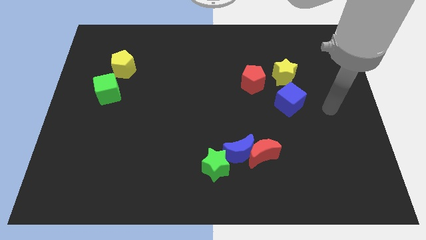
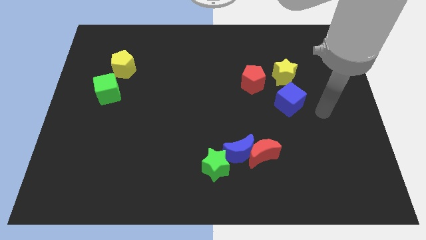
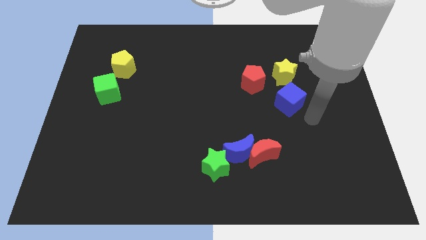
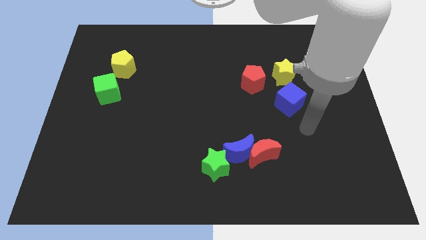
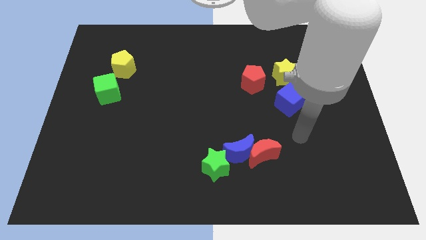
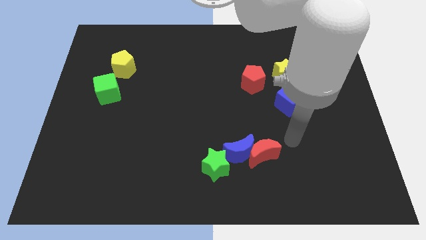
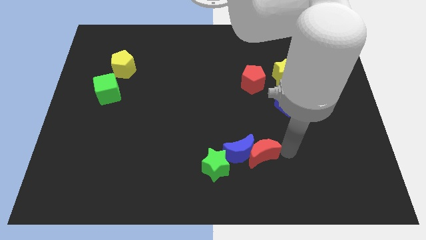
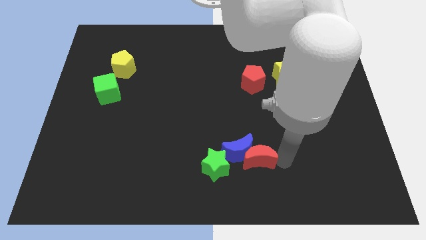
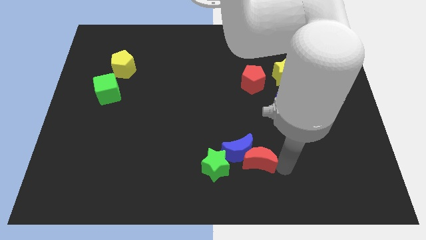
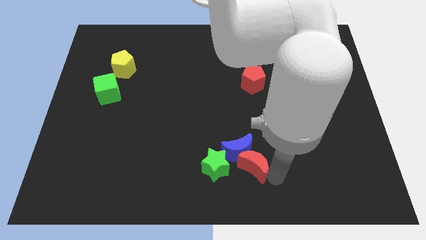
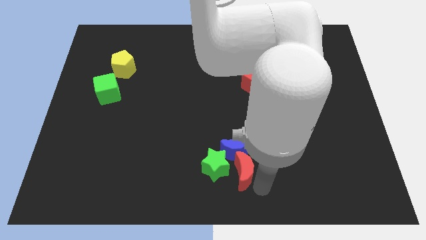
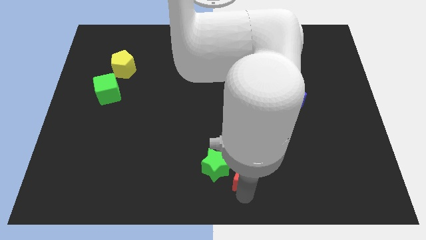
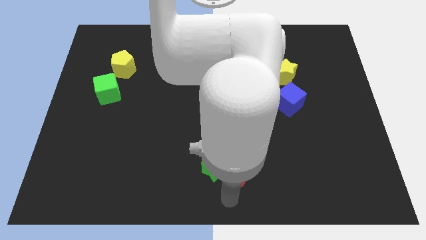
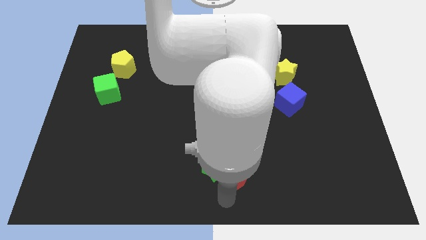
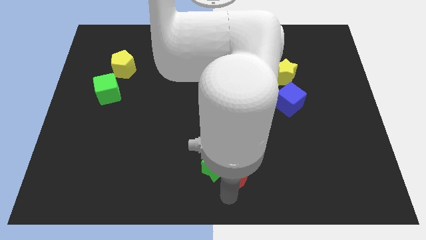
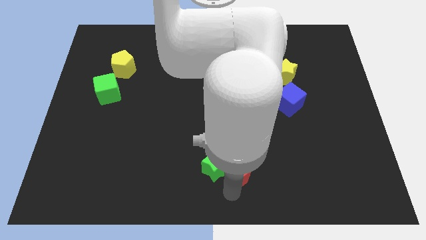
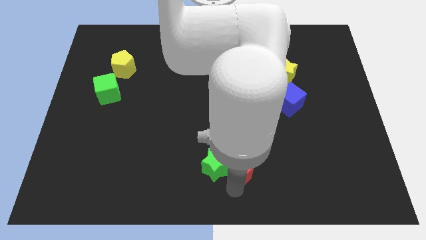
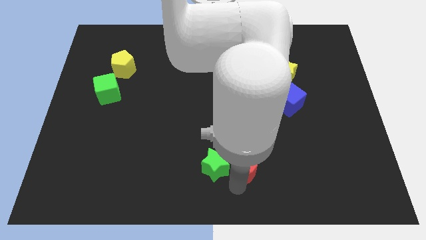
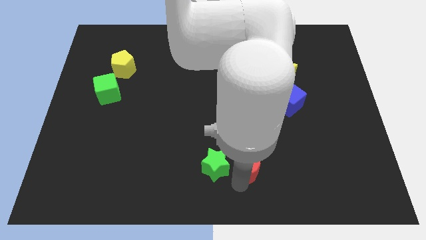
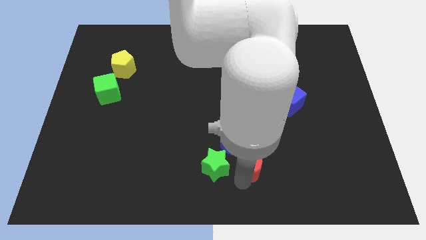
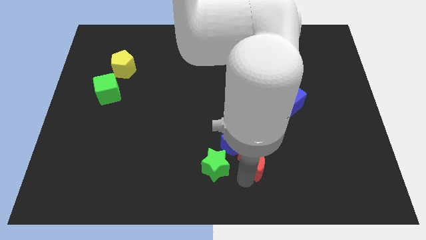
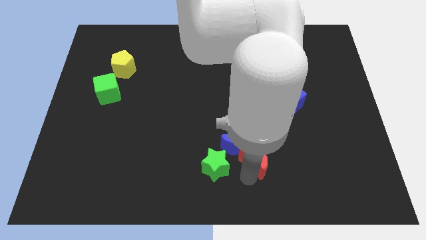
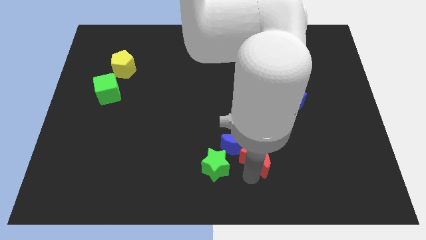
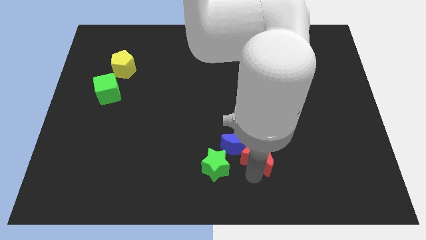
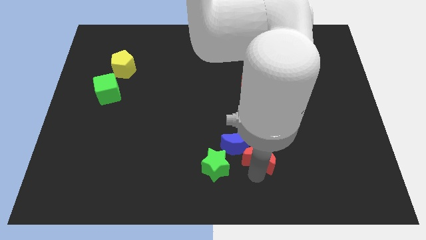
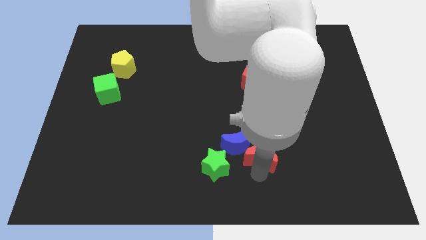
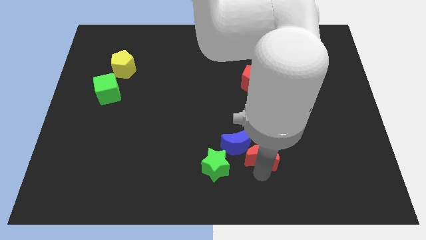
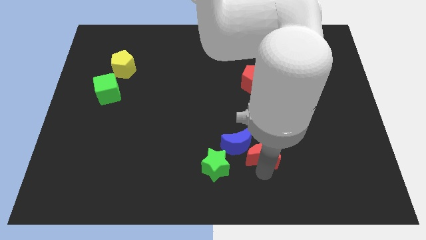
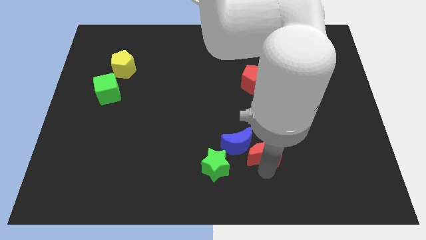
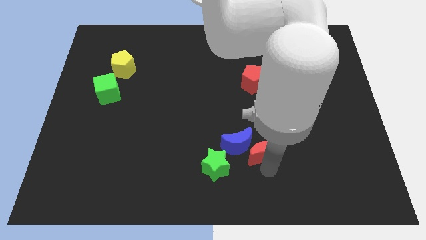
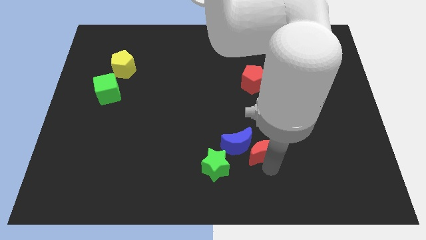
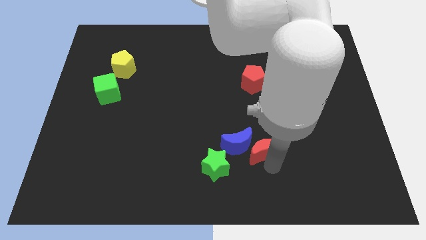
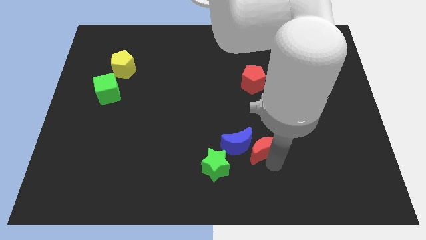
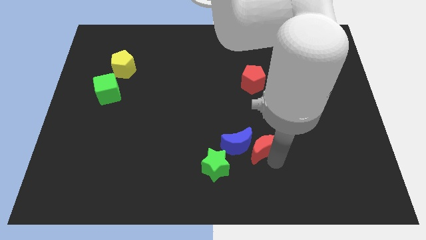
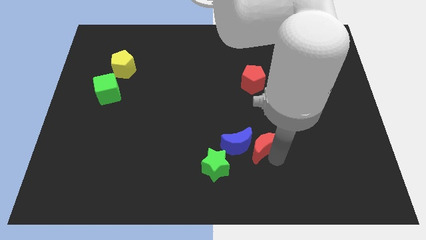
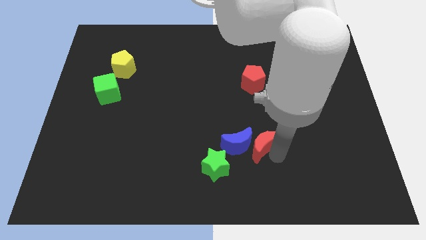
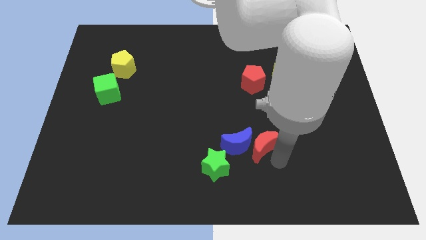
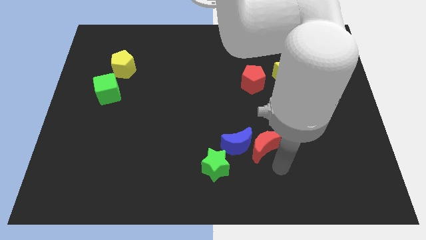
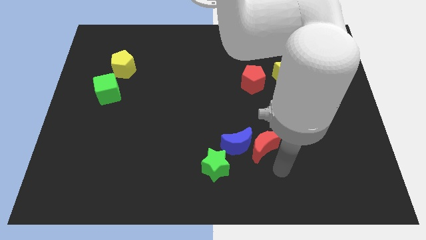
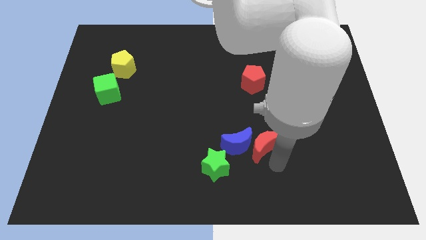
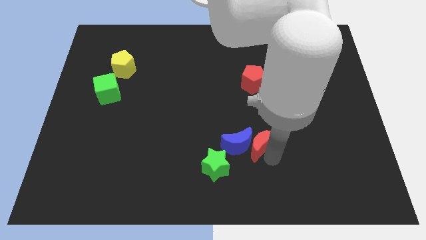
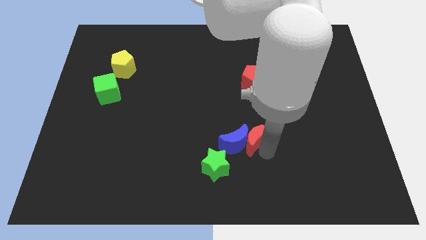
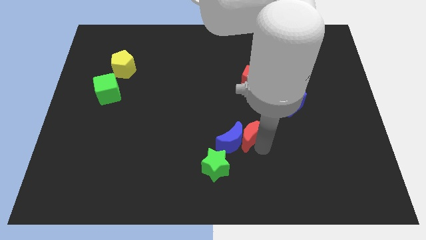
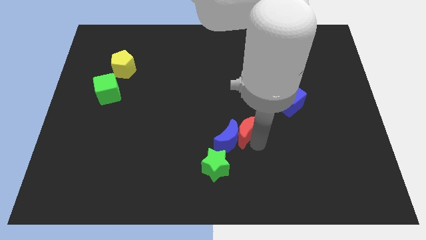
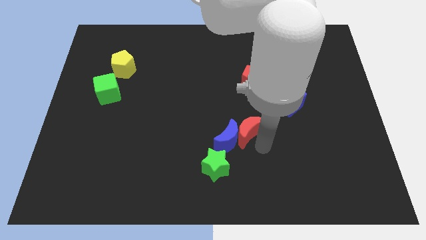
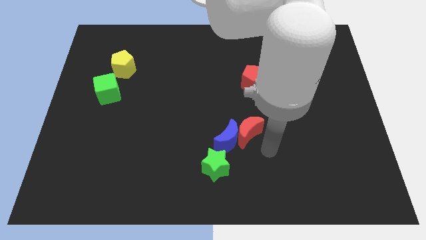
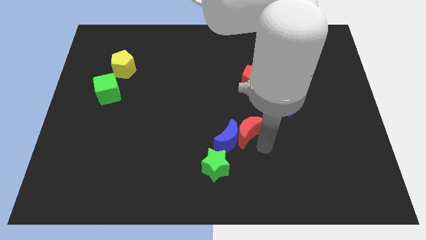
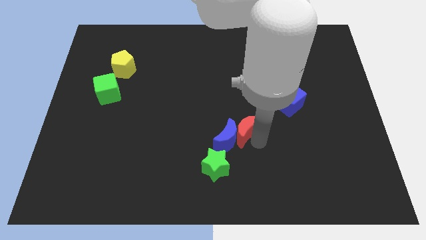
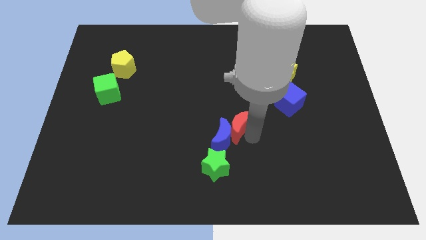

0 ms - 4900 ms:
slide the red moon a little bit upwards and then to the left

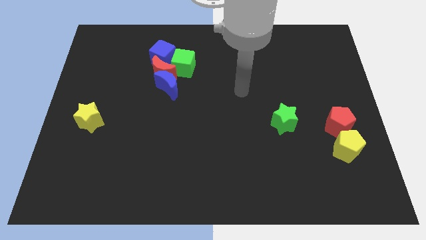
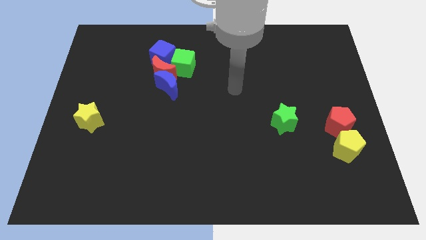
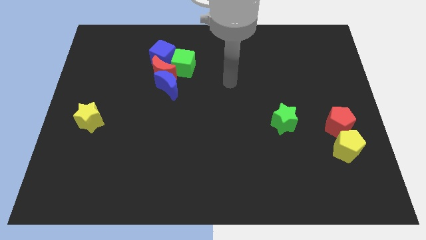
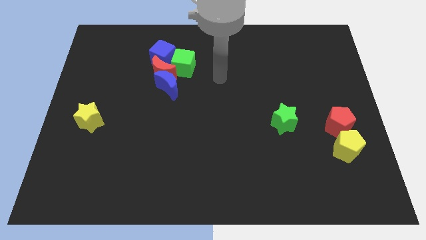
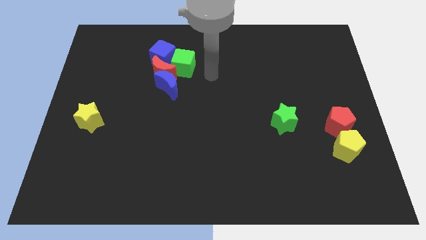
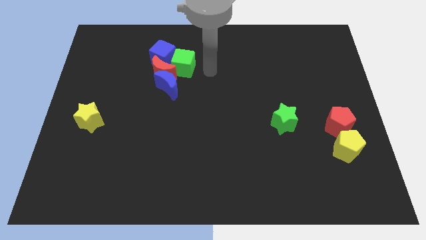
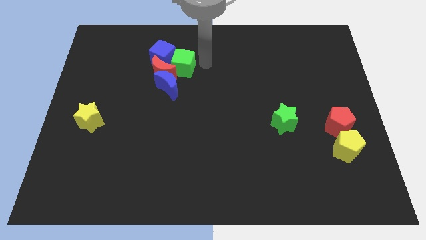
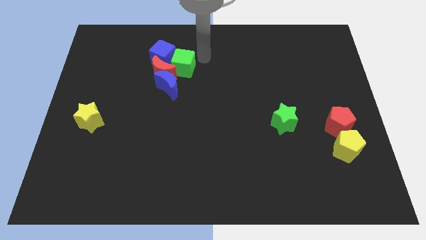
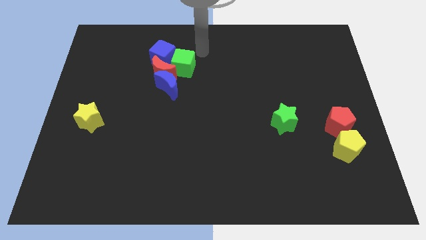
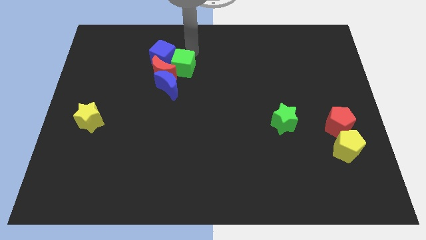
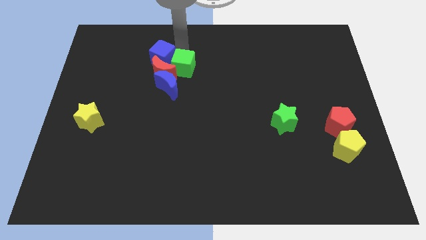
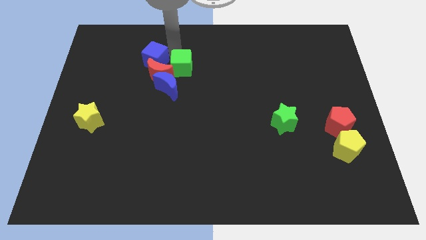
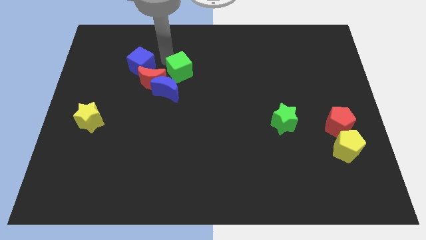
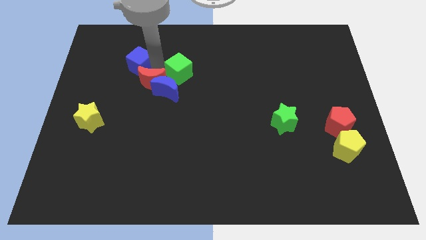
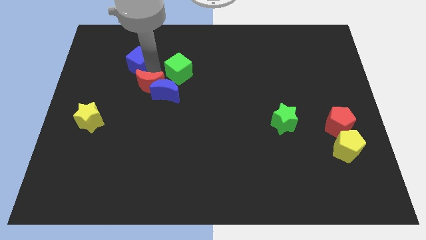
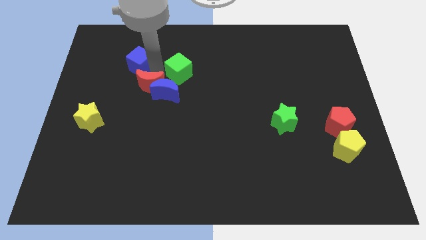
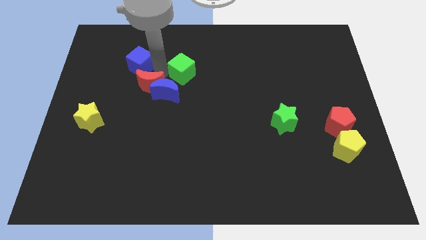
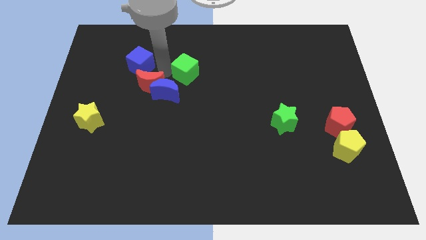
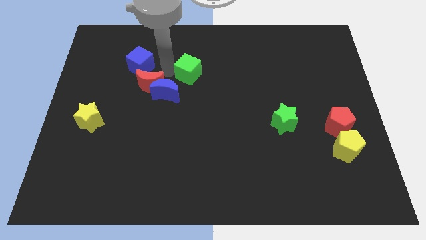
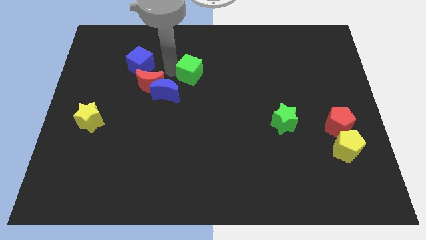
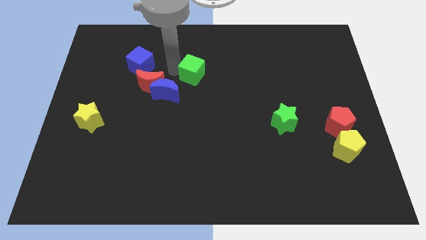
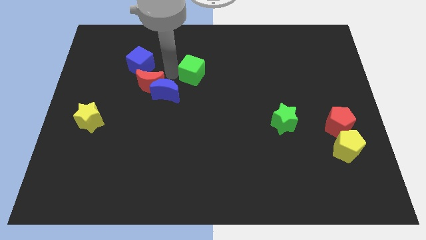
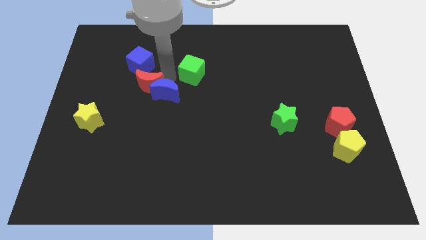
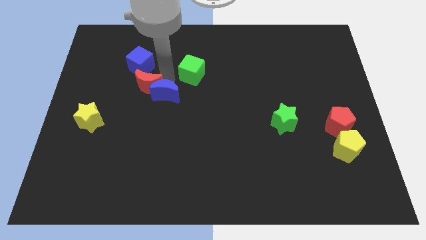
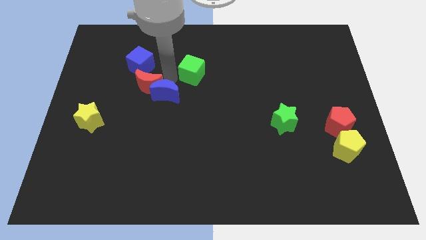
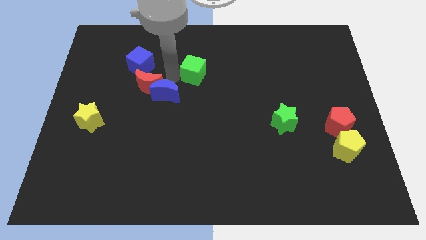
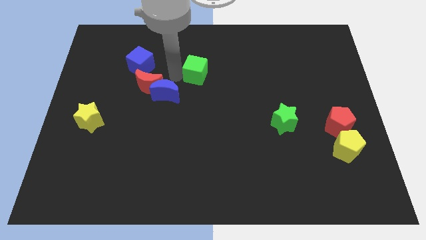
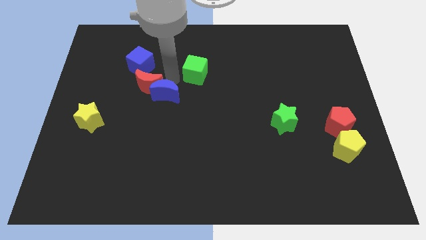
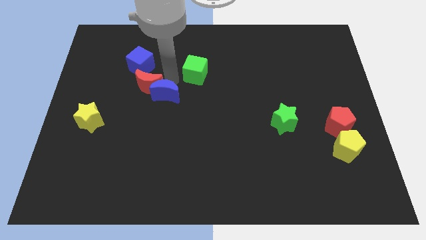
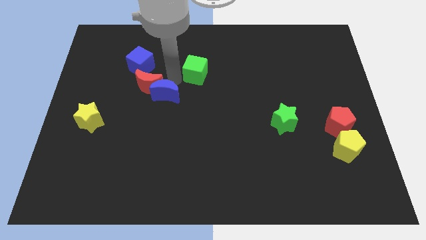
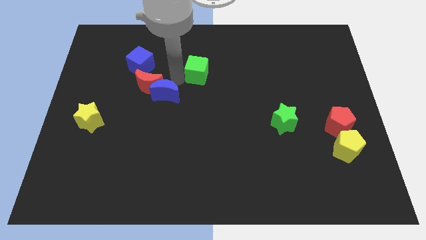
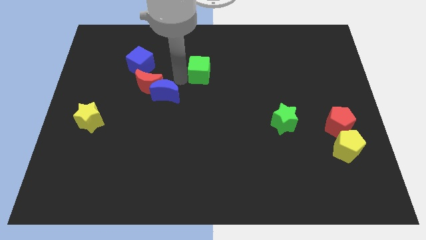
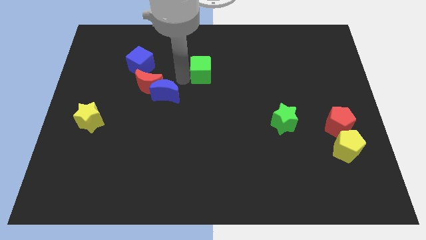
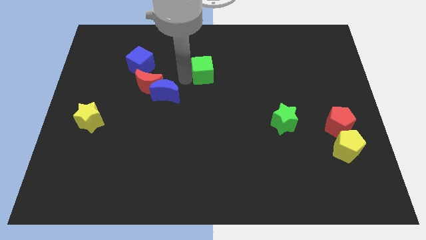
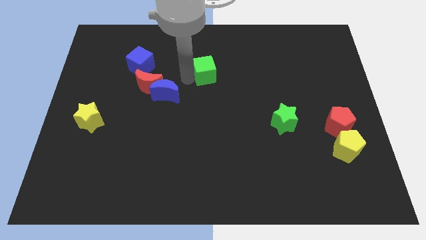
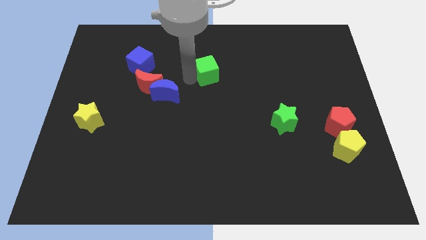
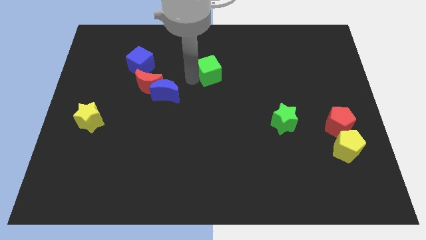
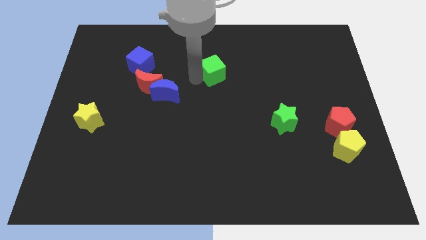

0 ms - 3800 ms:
slightly slide the green cube to the right
